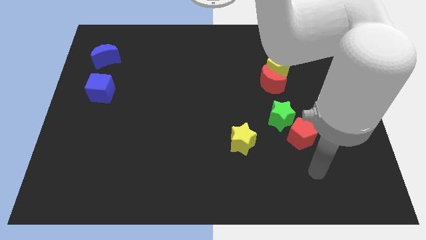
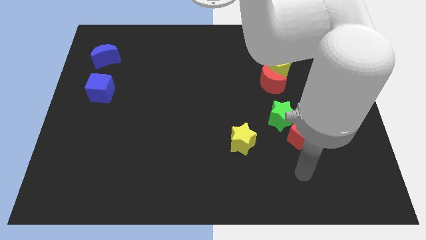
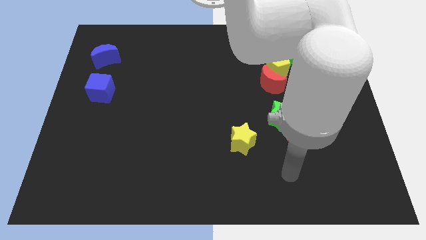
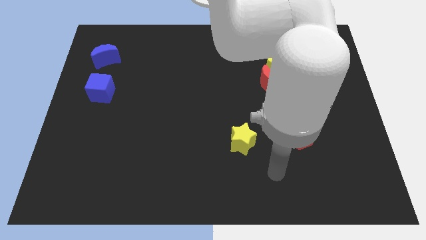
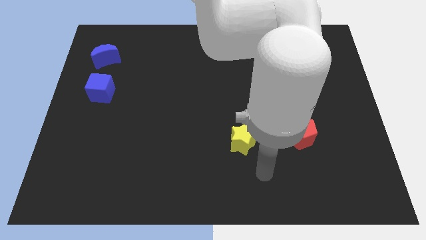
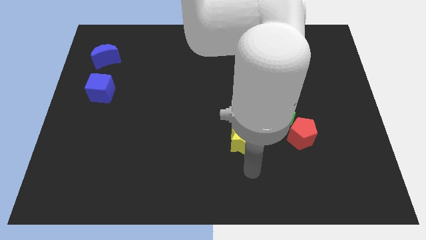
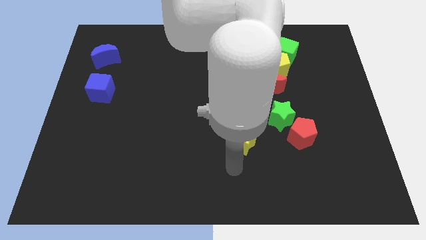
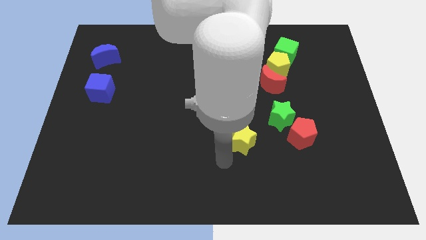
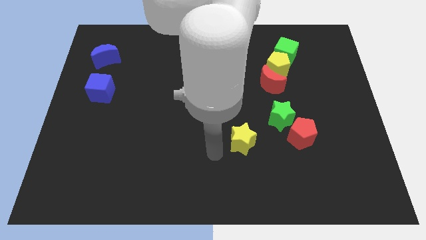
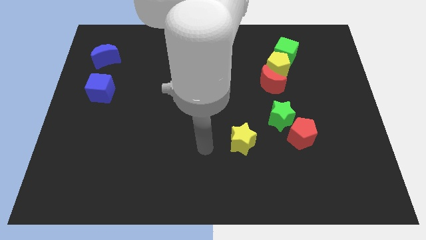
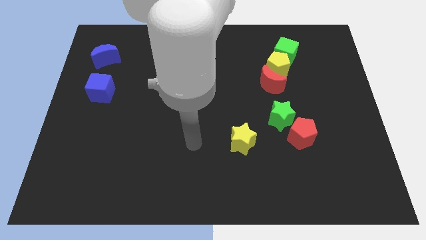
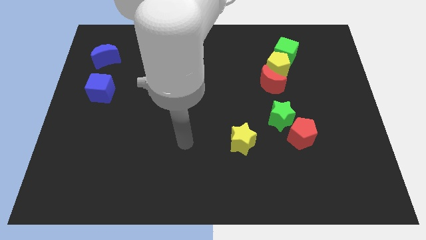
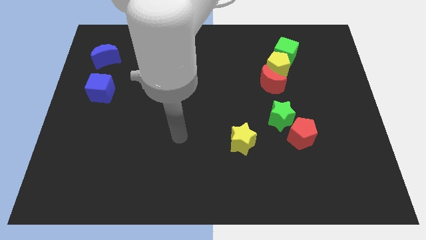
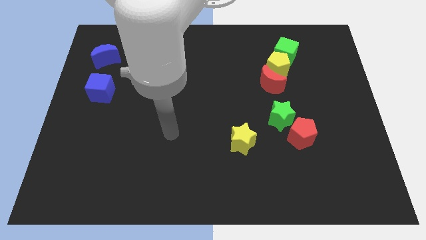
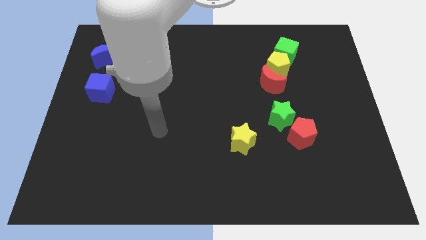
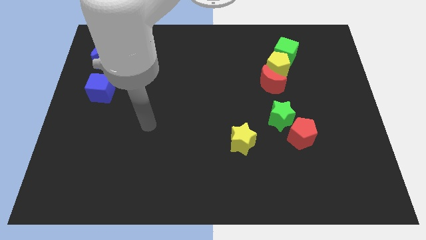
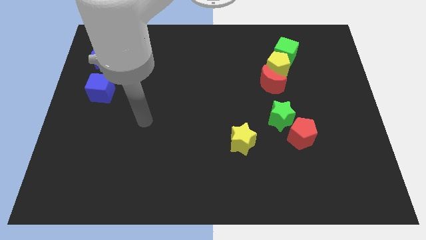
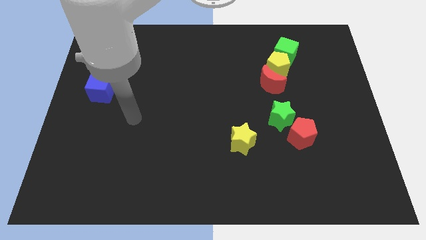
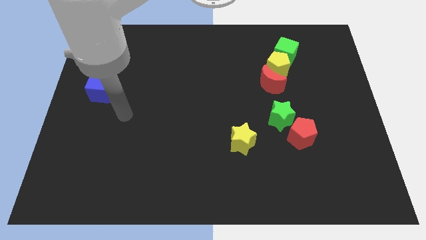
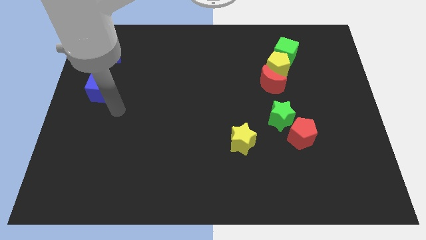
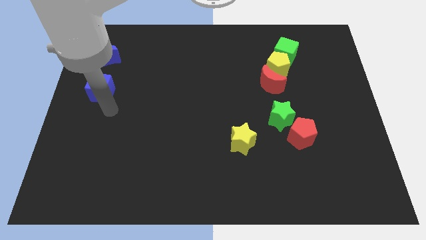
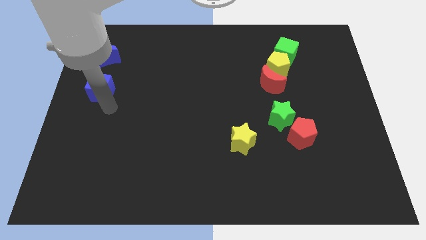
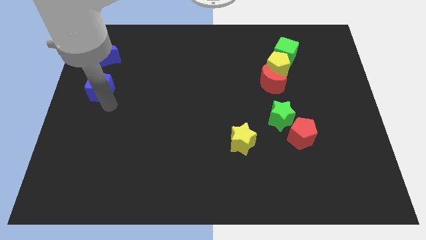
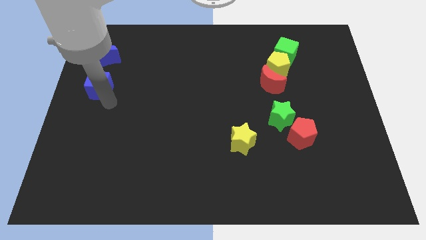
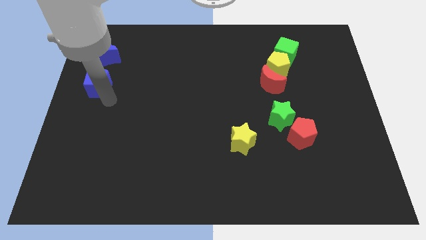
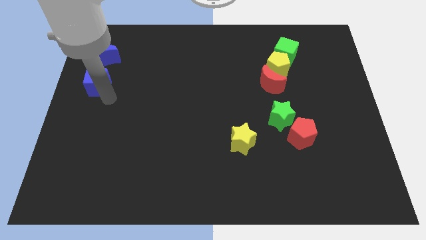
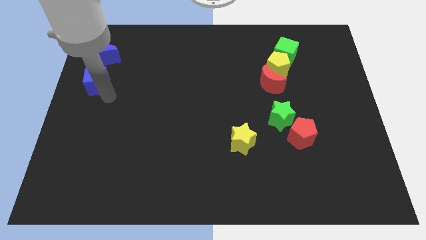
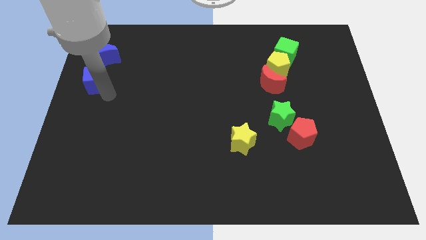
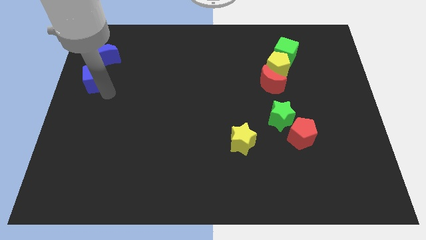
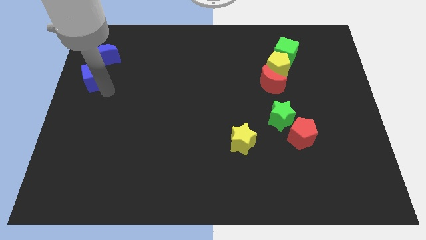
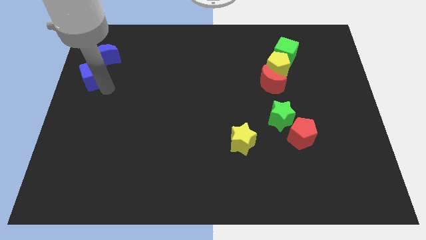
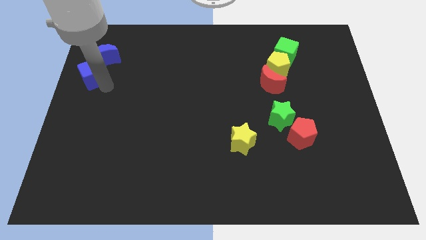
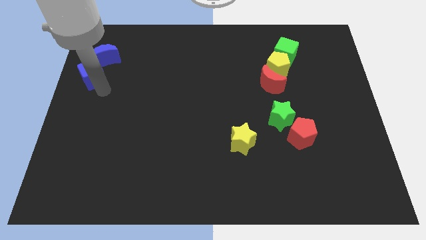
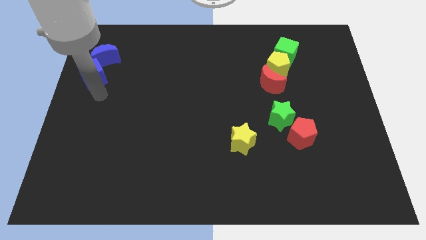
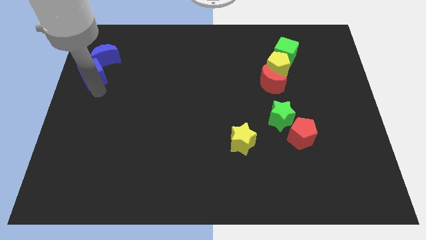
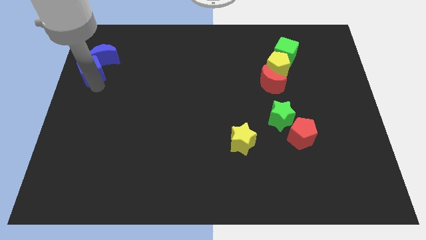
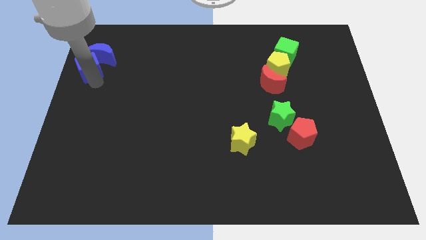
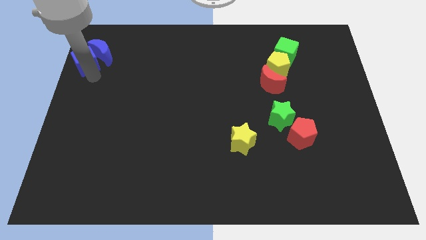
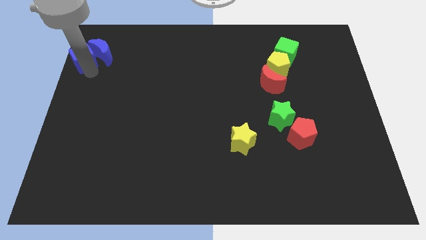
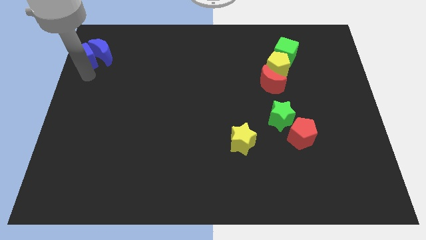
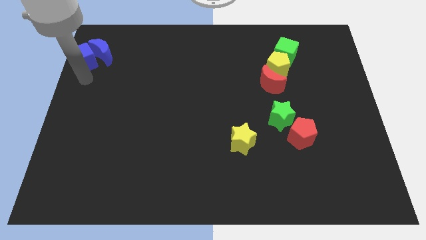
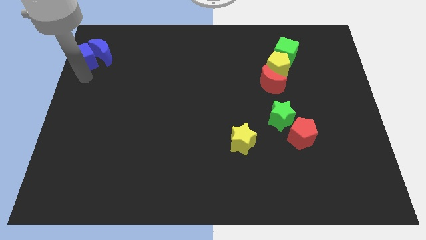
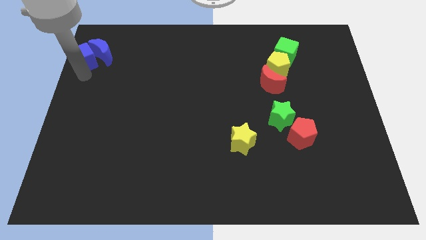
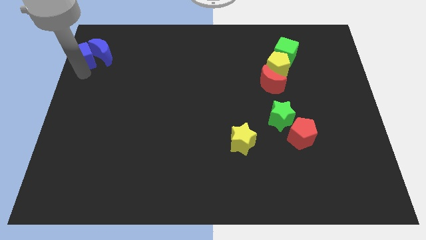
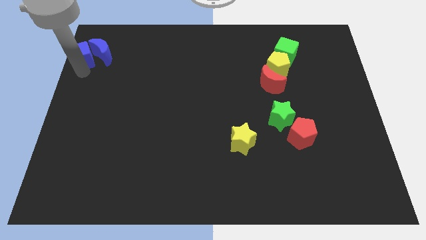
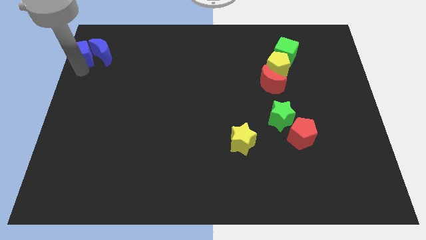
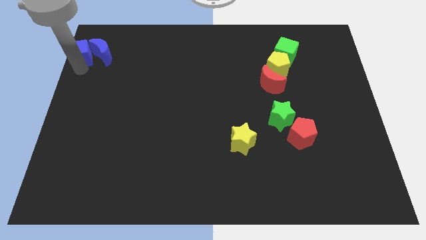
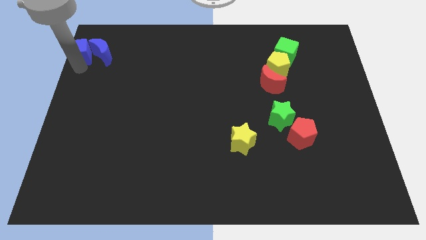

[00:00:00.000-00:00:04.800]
push the blue cube to the top left corner

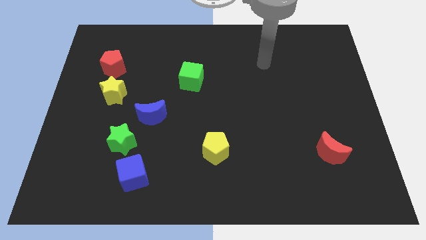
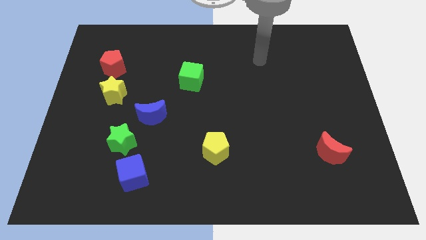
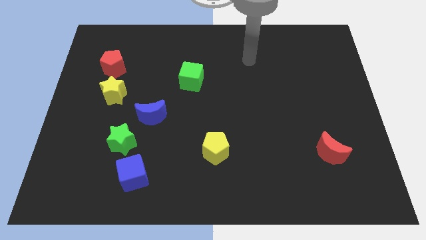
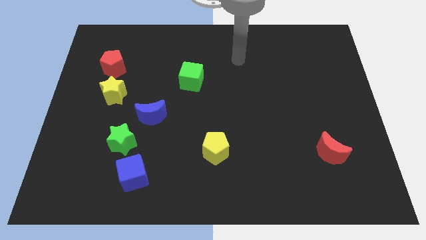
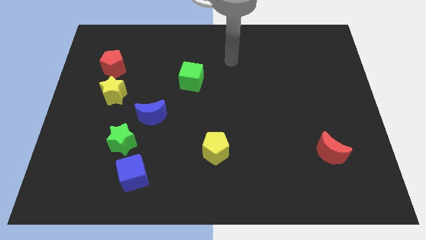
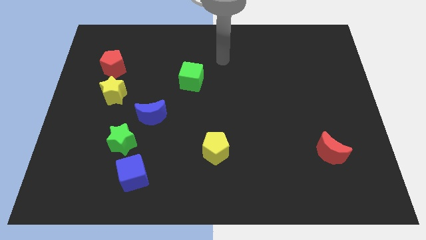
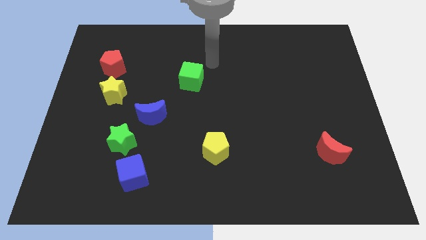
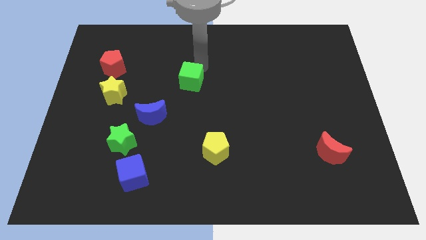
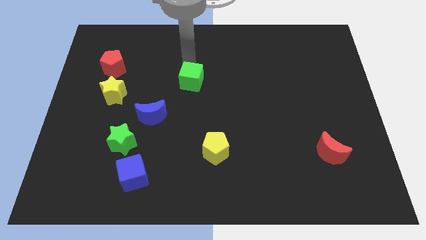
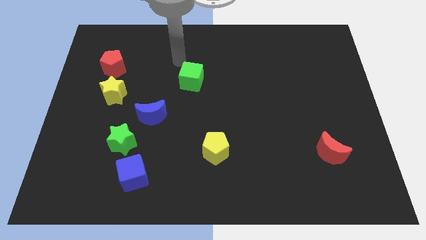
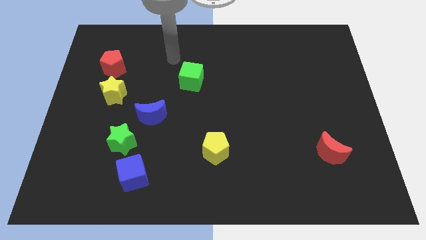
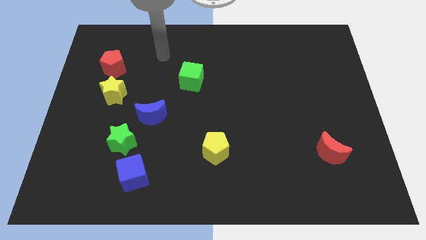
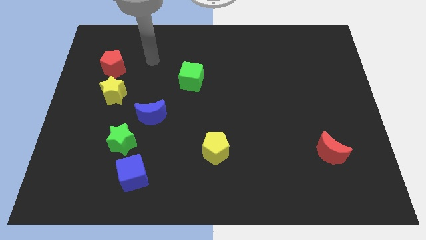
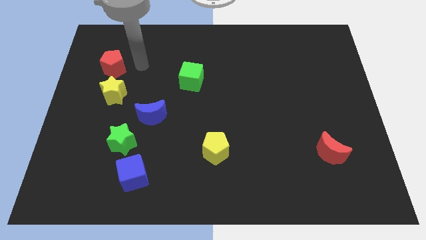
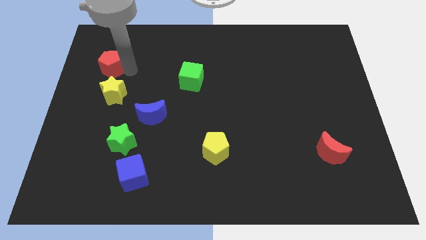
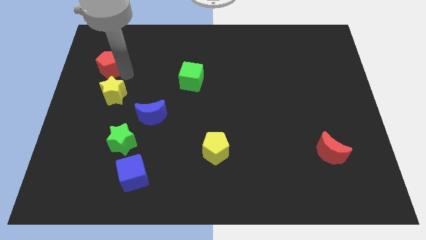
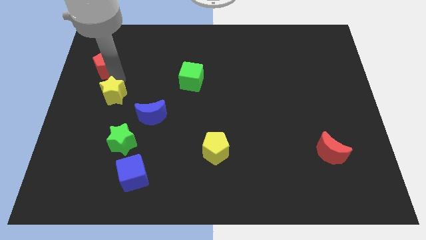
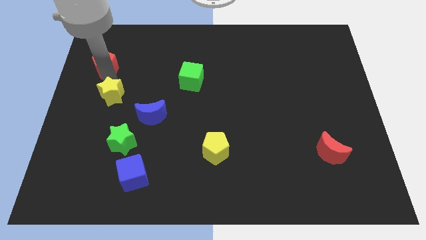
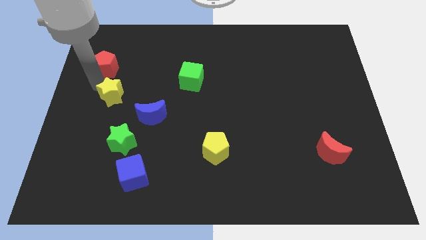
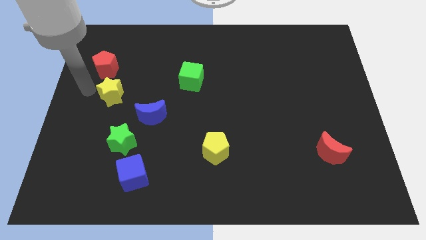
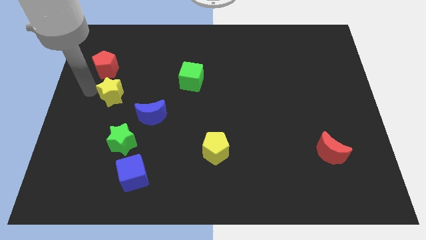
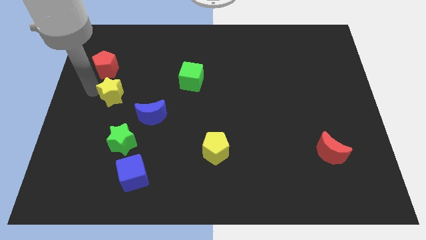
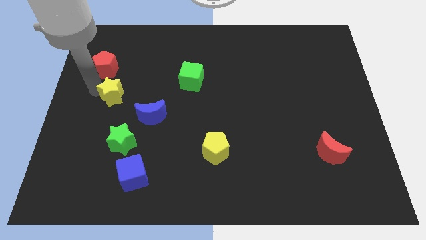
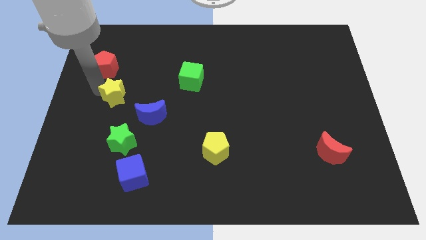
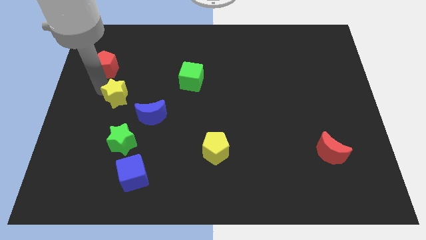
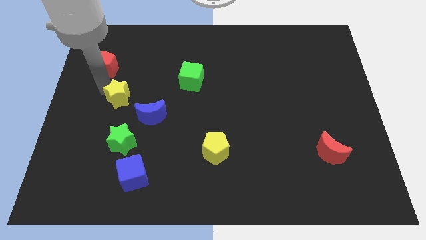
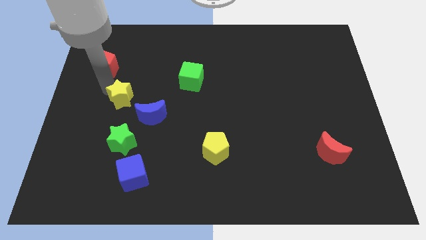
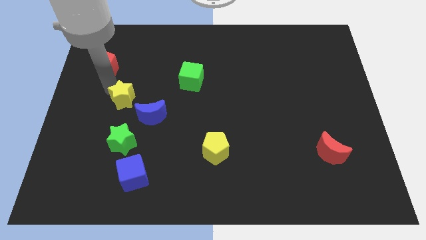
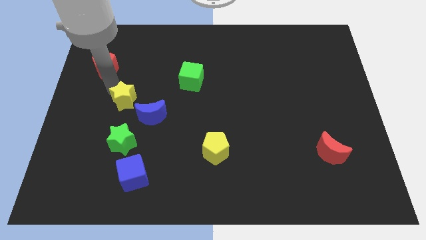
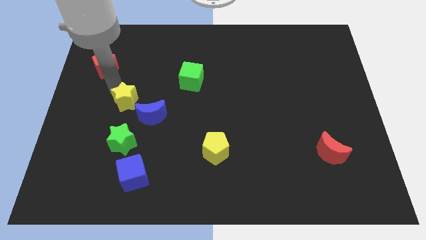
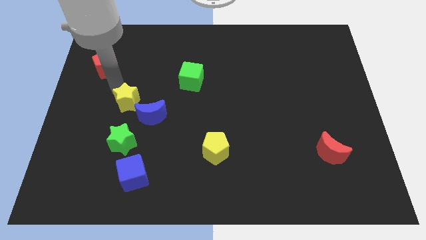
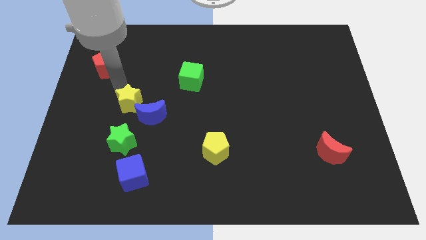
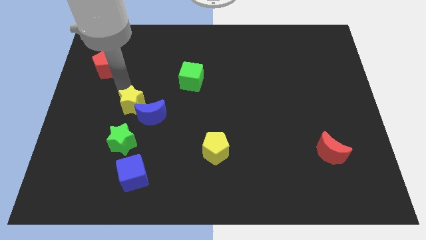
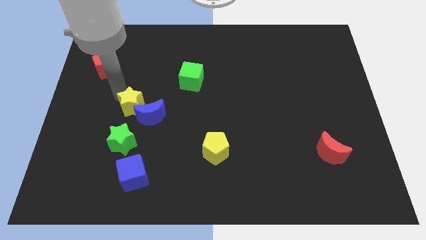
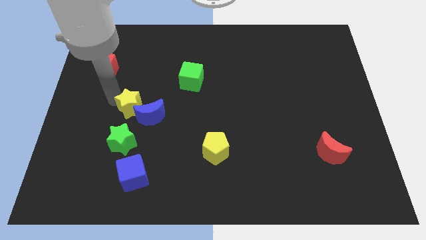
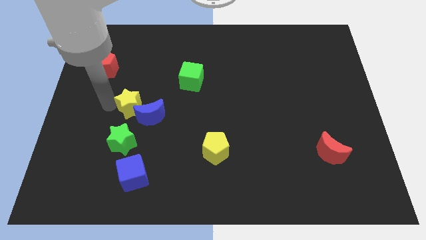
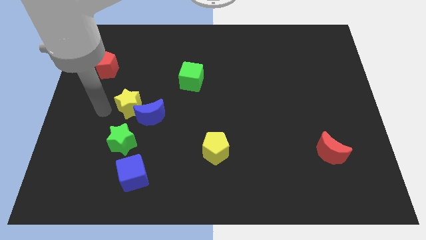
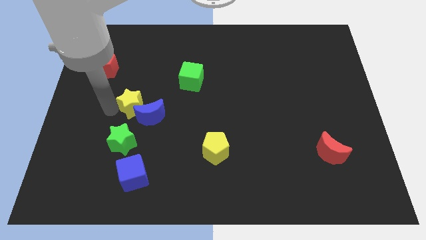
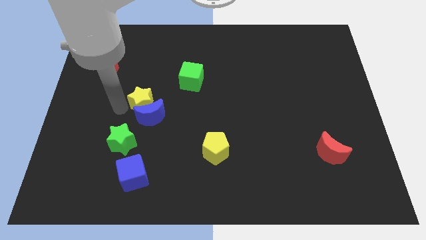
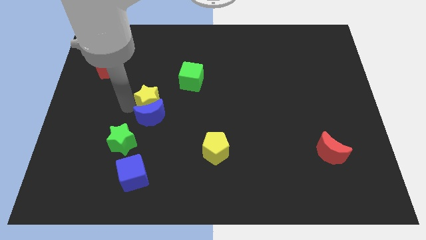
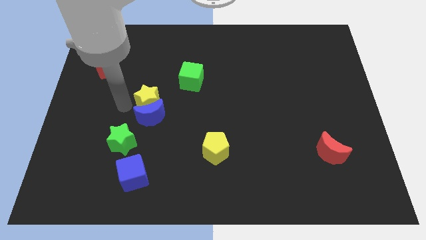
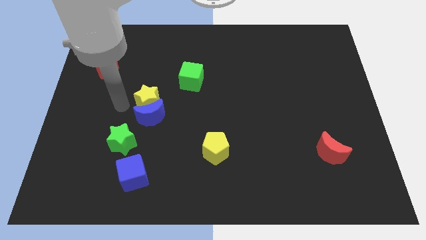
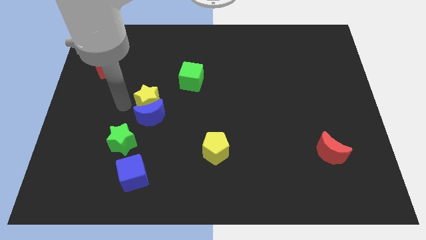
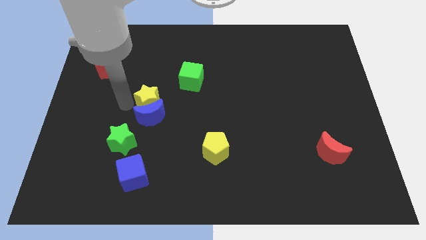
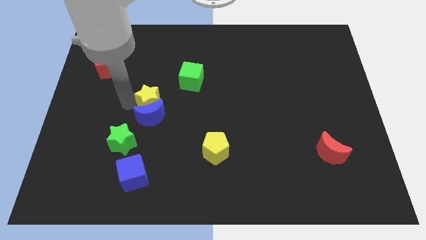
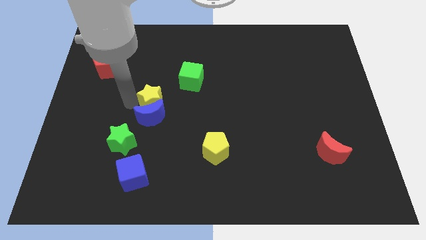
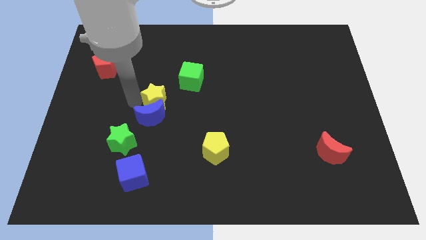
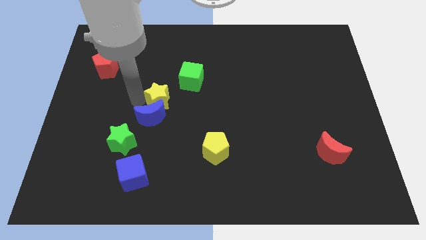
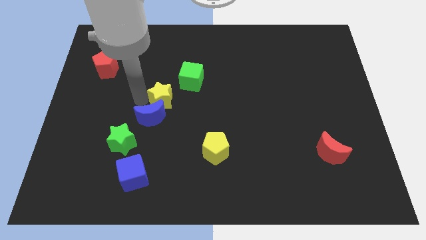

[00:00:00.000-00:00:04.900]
slide the yellow star to the center
